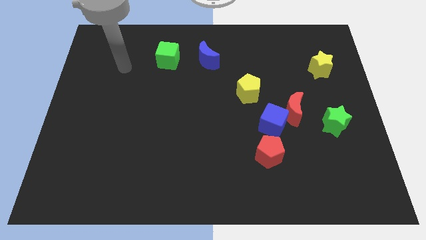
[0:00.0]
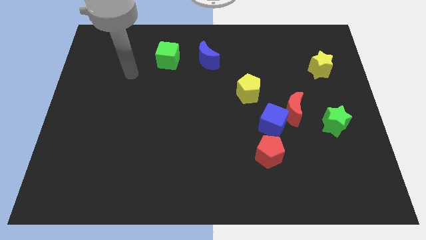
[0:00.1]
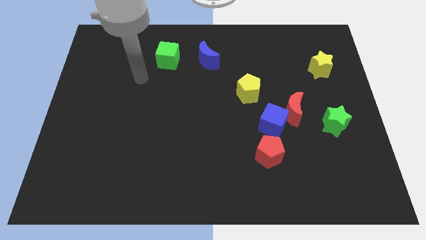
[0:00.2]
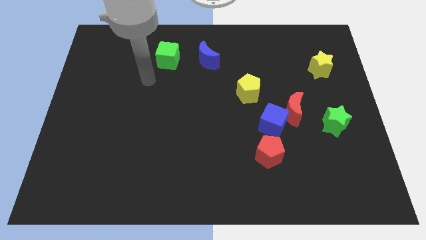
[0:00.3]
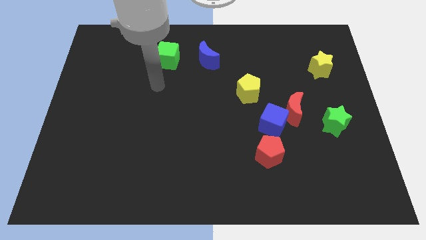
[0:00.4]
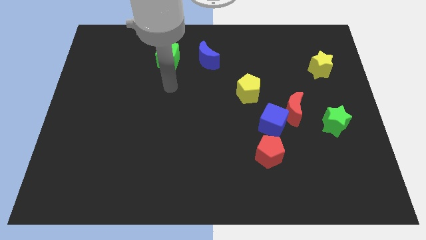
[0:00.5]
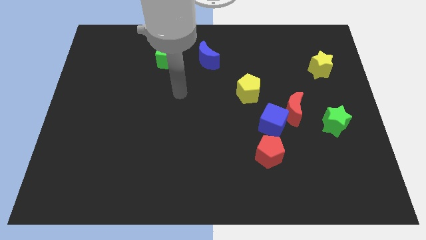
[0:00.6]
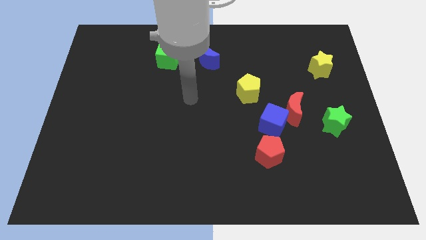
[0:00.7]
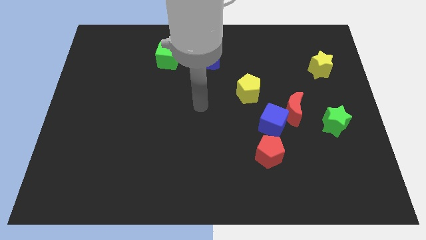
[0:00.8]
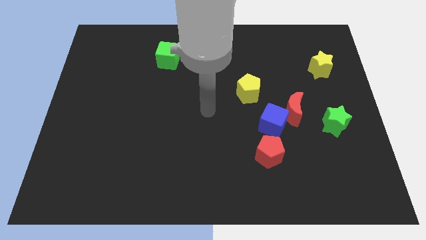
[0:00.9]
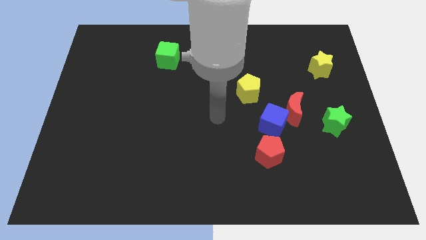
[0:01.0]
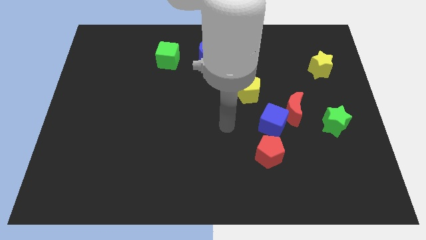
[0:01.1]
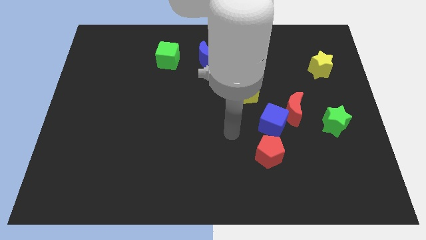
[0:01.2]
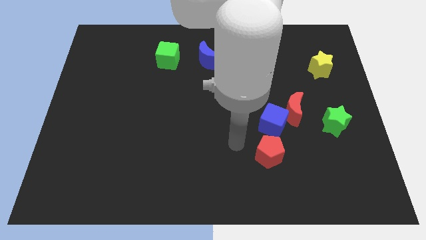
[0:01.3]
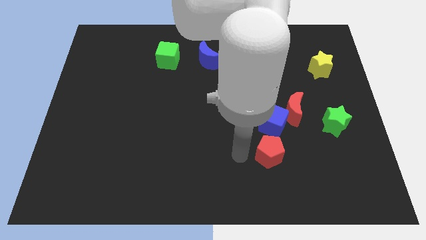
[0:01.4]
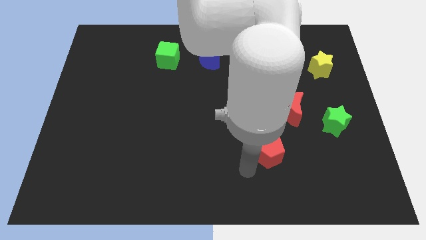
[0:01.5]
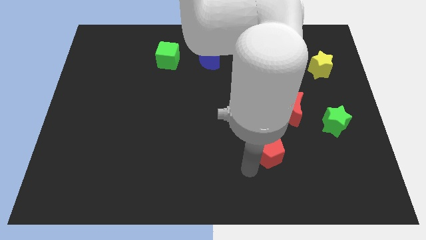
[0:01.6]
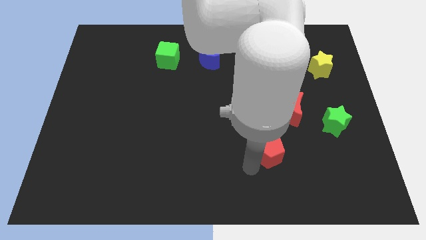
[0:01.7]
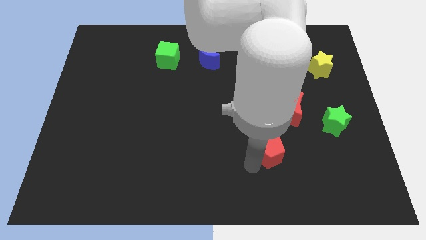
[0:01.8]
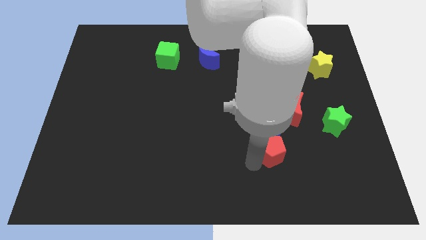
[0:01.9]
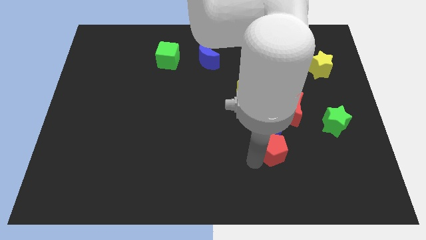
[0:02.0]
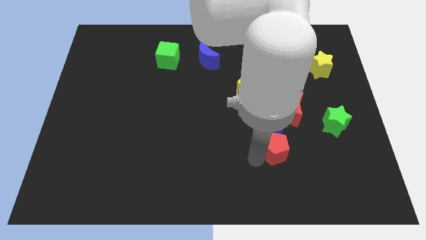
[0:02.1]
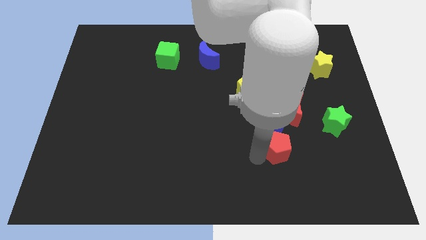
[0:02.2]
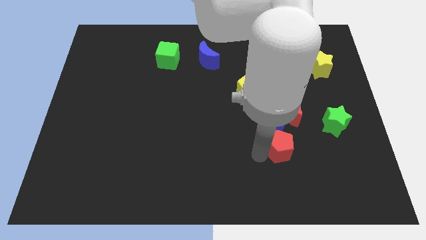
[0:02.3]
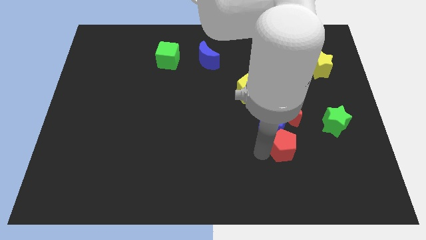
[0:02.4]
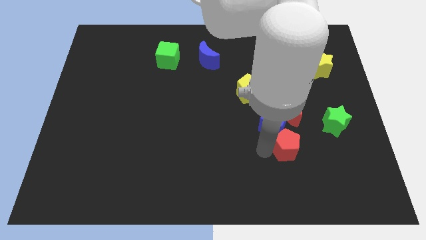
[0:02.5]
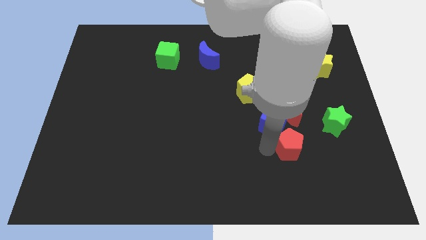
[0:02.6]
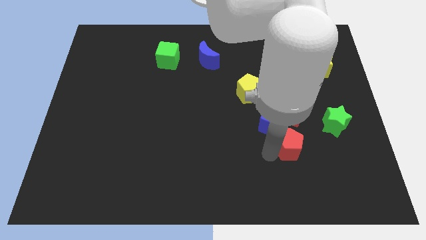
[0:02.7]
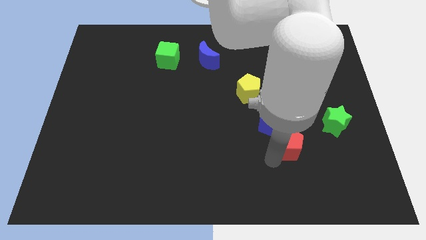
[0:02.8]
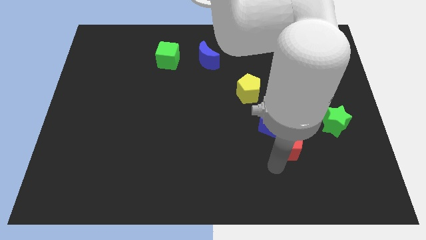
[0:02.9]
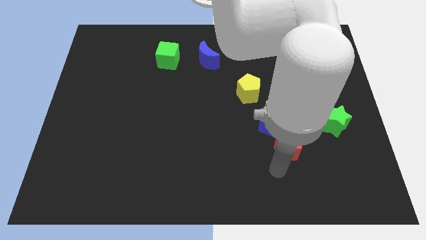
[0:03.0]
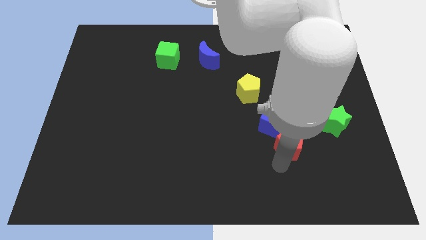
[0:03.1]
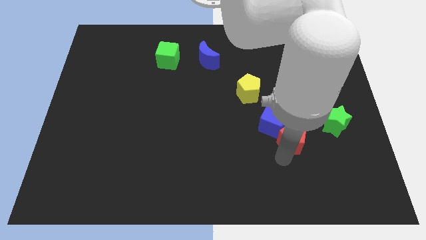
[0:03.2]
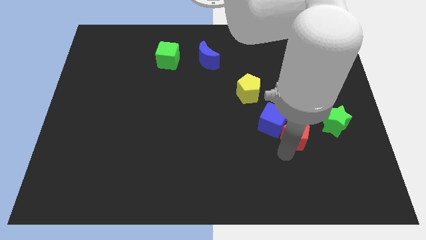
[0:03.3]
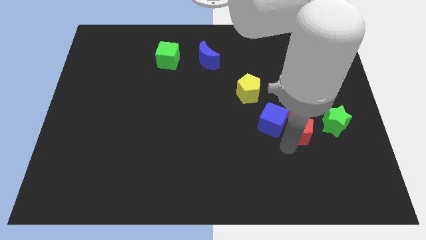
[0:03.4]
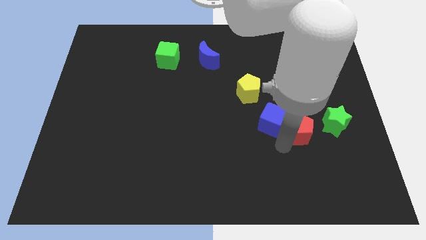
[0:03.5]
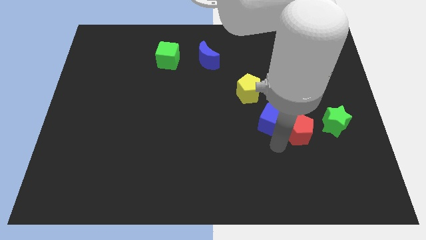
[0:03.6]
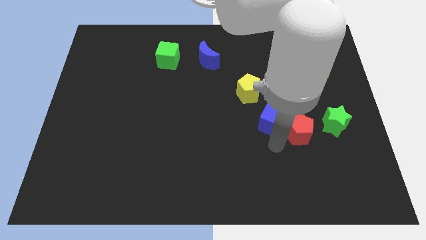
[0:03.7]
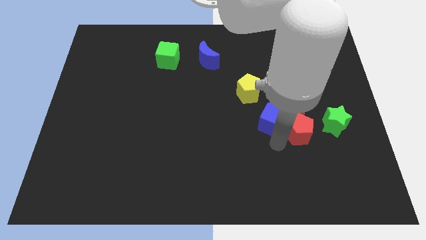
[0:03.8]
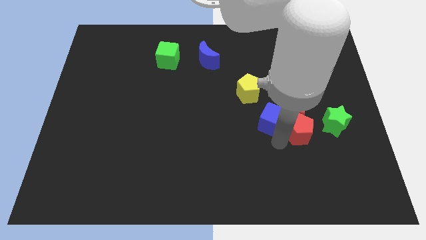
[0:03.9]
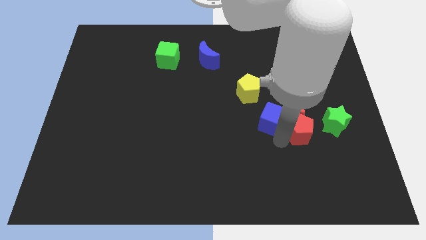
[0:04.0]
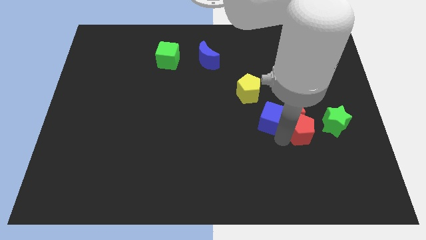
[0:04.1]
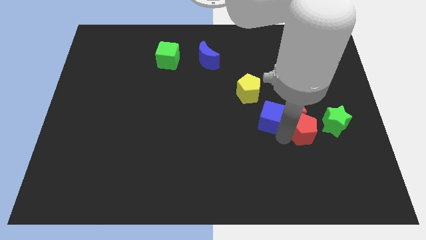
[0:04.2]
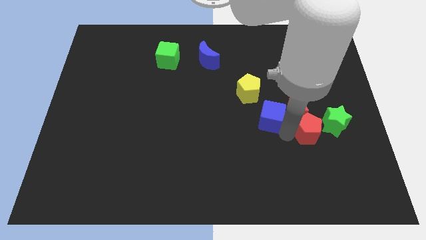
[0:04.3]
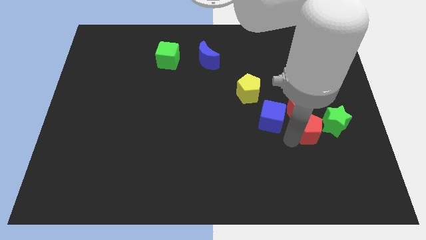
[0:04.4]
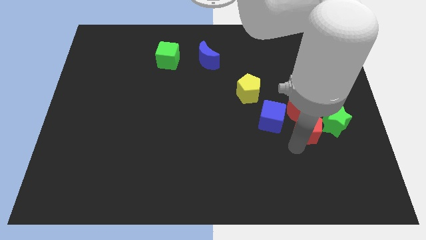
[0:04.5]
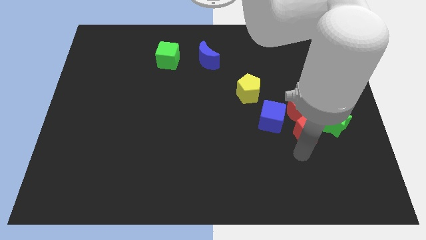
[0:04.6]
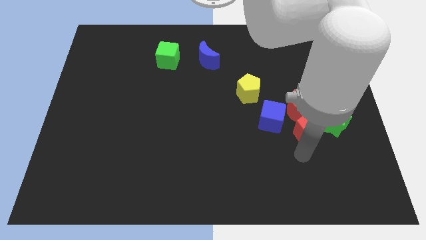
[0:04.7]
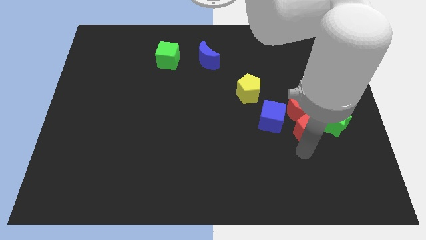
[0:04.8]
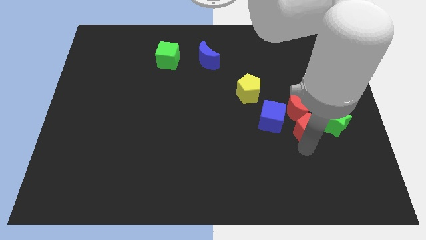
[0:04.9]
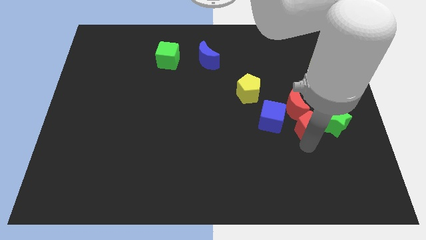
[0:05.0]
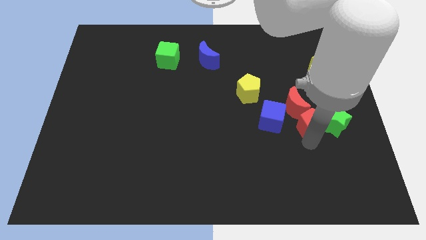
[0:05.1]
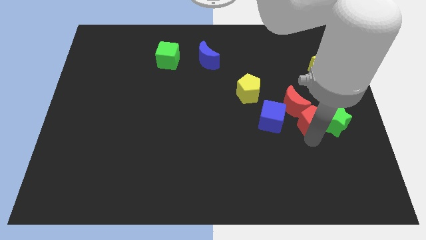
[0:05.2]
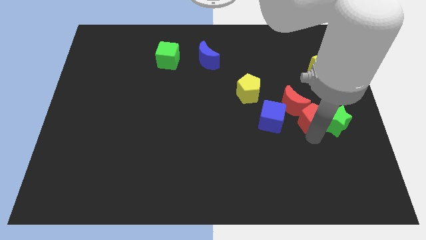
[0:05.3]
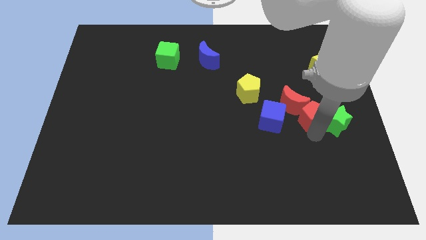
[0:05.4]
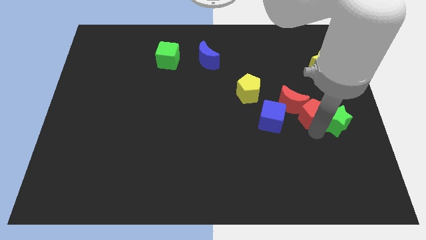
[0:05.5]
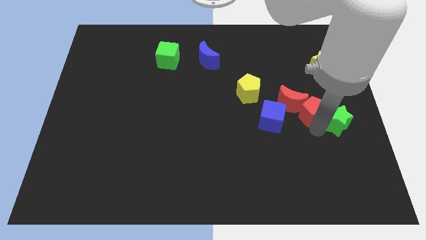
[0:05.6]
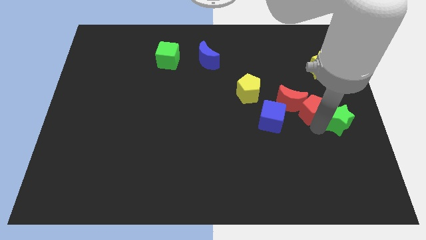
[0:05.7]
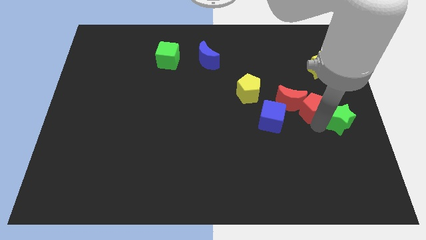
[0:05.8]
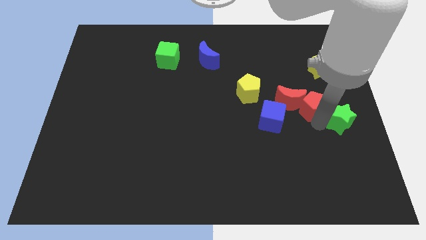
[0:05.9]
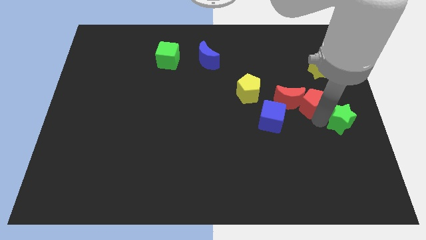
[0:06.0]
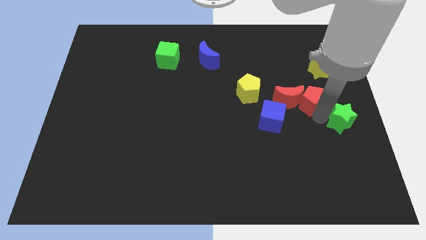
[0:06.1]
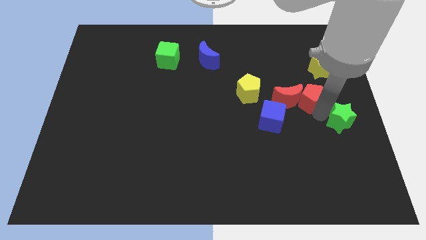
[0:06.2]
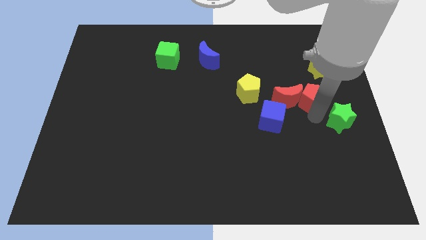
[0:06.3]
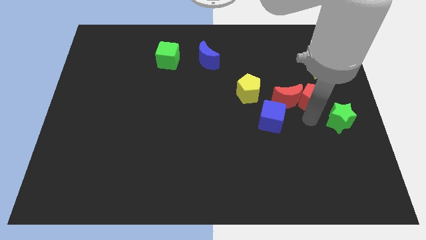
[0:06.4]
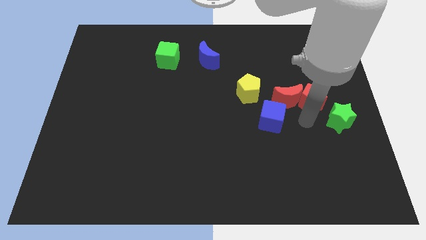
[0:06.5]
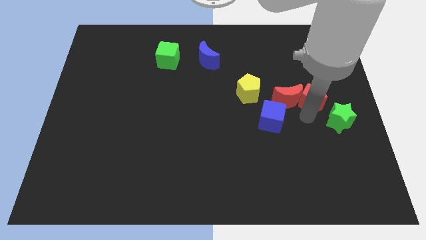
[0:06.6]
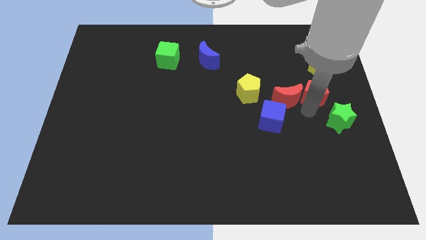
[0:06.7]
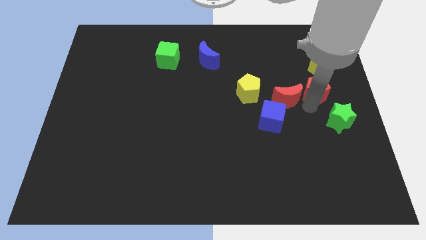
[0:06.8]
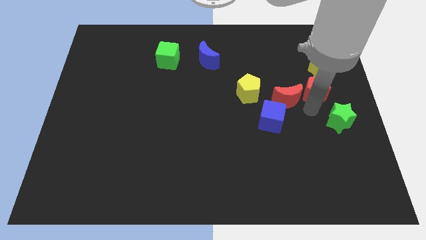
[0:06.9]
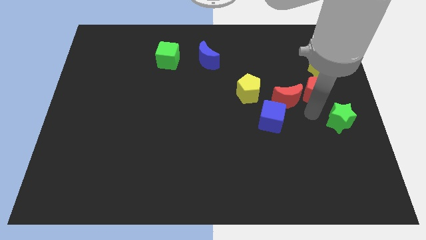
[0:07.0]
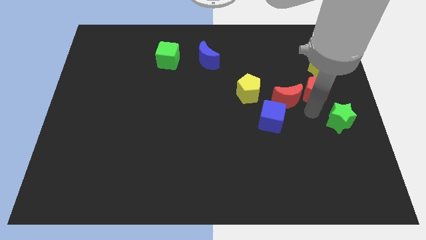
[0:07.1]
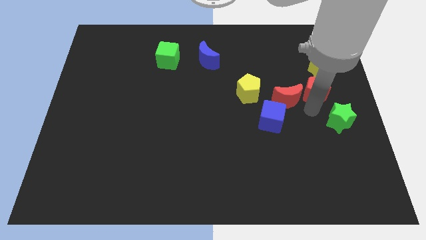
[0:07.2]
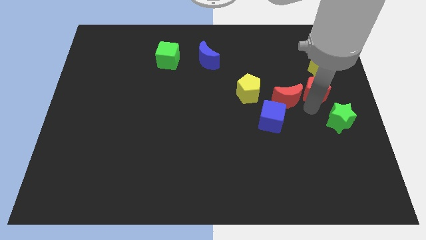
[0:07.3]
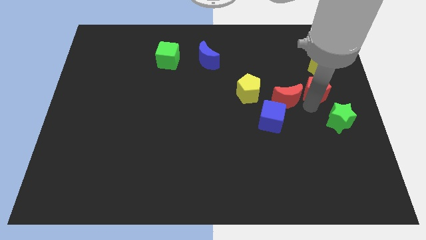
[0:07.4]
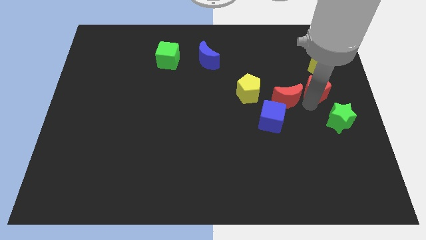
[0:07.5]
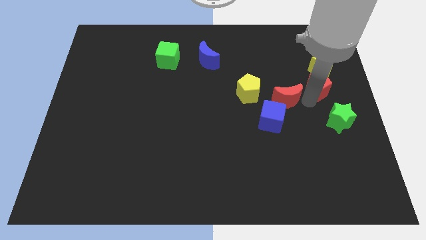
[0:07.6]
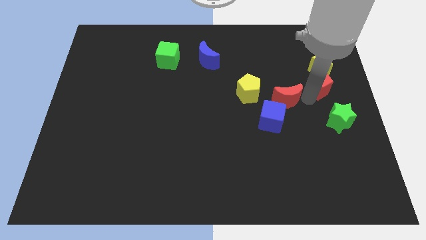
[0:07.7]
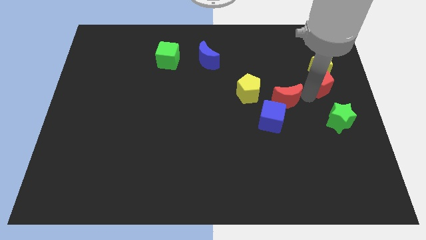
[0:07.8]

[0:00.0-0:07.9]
put the red pentagon next to the yellow star
